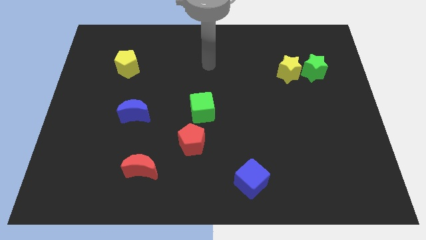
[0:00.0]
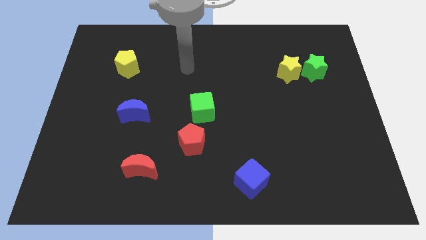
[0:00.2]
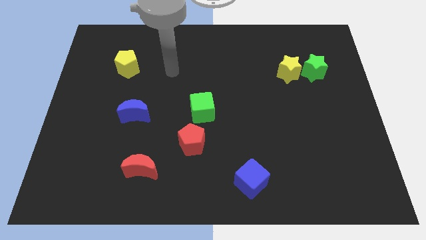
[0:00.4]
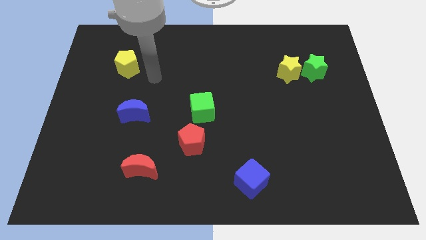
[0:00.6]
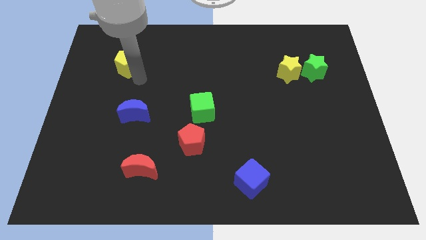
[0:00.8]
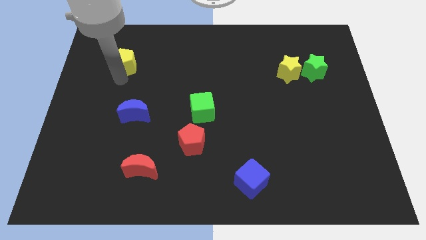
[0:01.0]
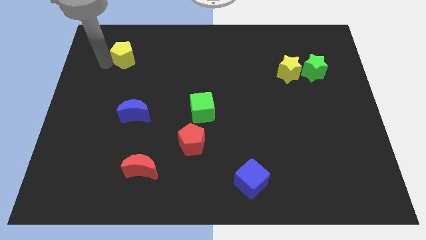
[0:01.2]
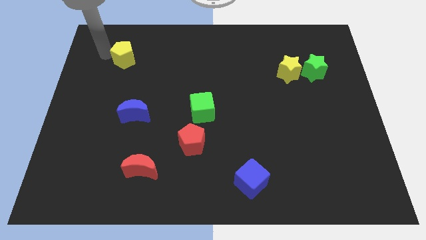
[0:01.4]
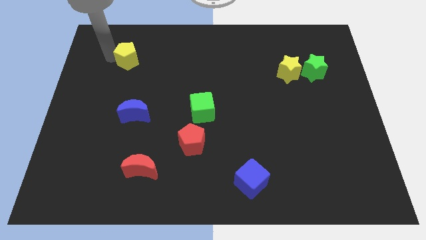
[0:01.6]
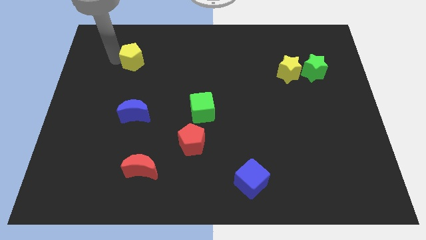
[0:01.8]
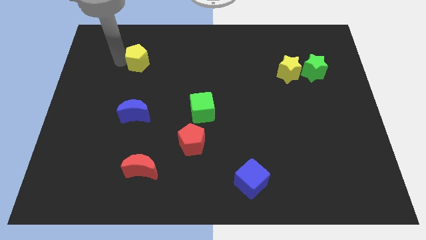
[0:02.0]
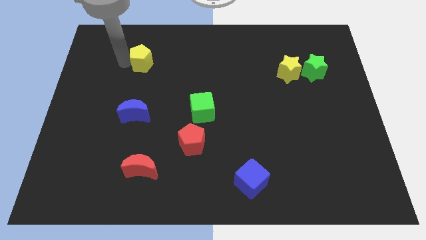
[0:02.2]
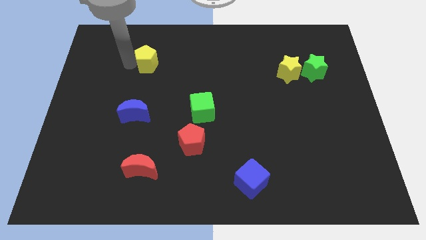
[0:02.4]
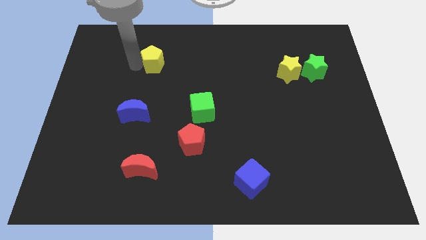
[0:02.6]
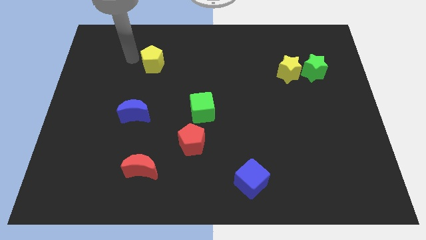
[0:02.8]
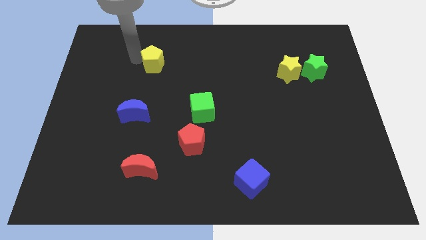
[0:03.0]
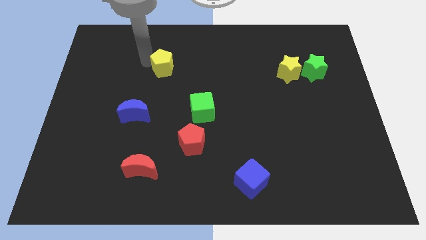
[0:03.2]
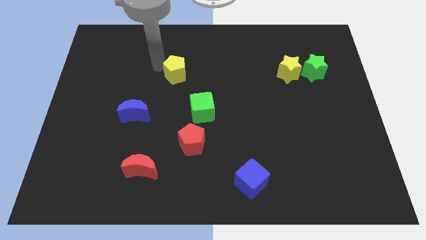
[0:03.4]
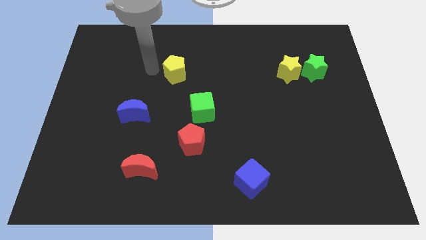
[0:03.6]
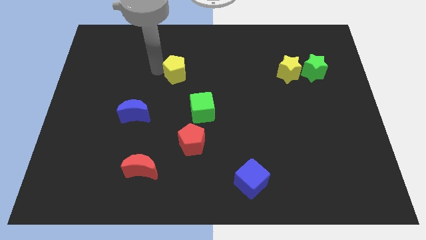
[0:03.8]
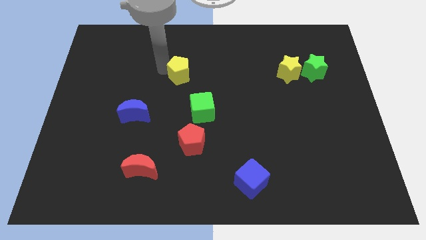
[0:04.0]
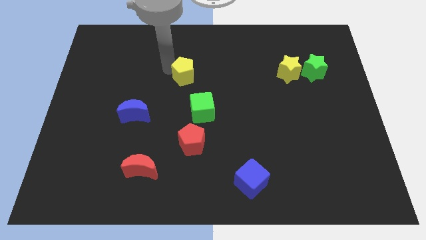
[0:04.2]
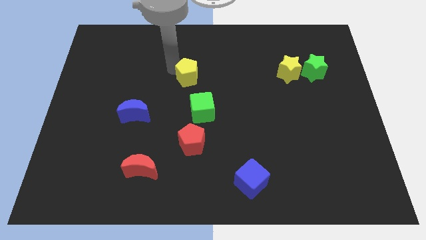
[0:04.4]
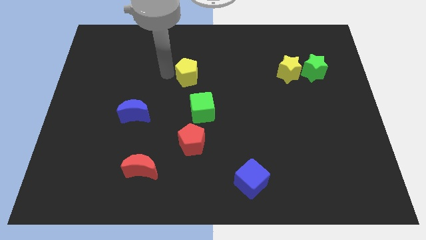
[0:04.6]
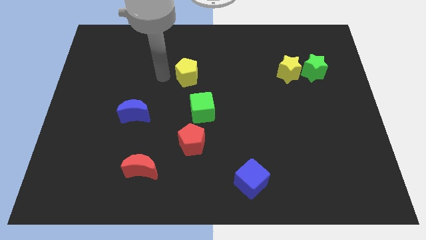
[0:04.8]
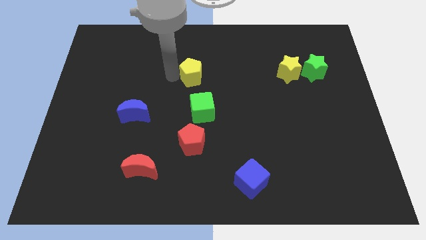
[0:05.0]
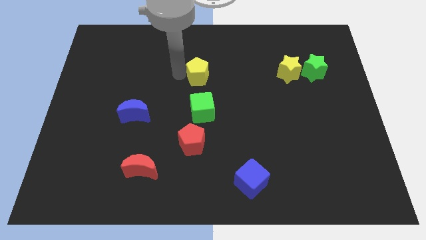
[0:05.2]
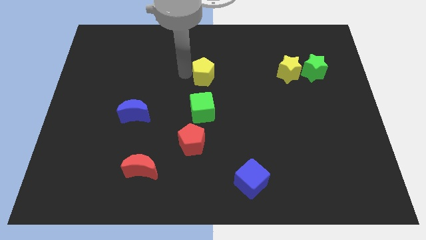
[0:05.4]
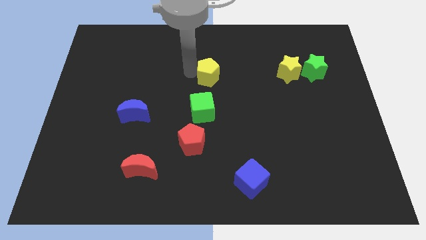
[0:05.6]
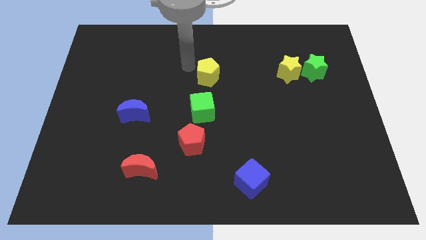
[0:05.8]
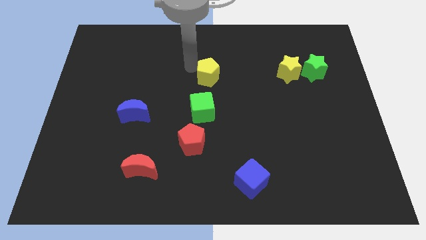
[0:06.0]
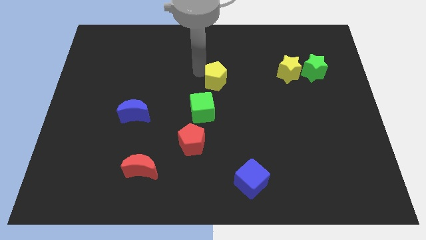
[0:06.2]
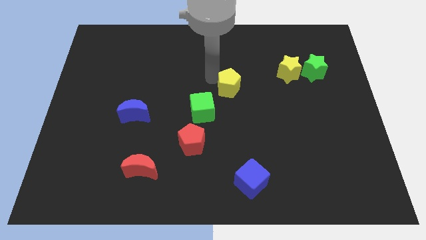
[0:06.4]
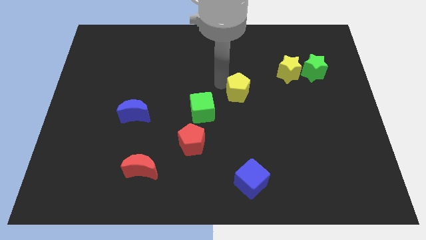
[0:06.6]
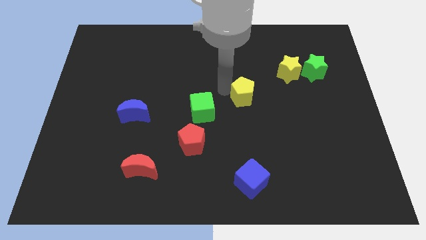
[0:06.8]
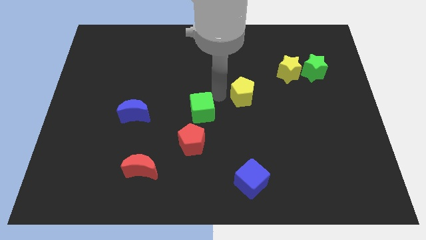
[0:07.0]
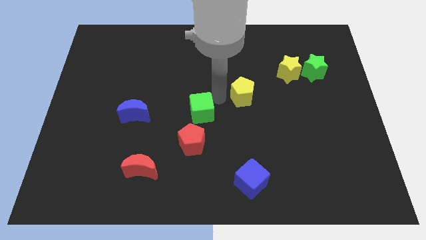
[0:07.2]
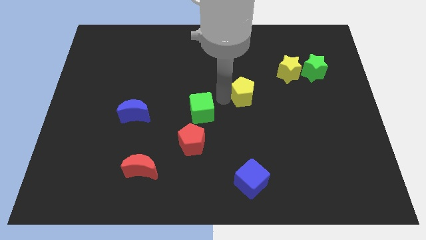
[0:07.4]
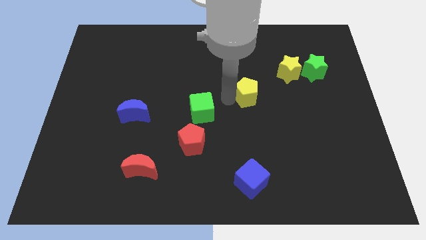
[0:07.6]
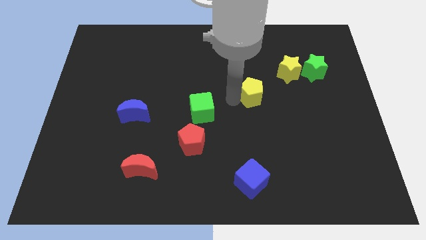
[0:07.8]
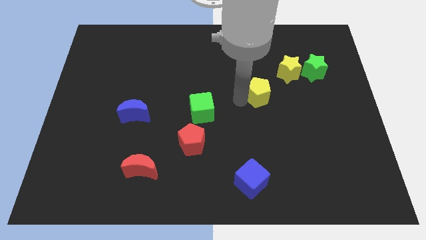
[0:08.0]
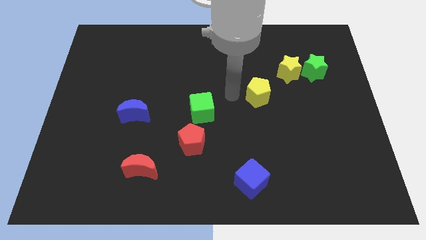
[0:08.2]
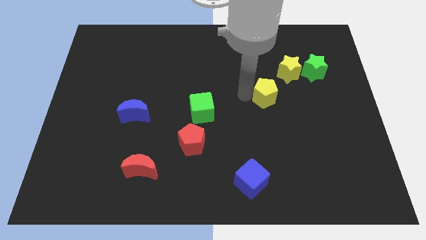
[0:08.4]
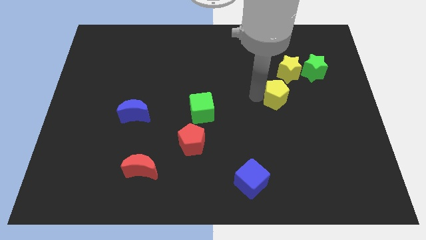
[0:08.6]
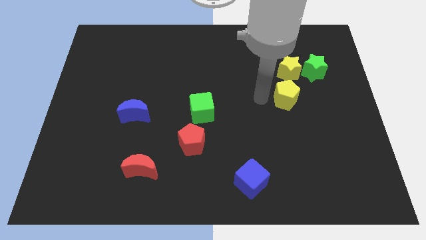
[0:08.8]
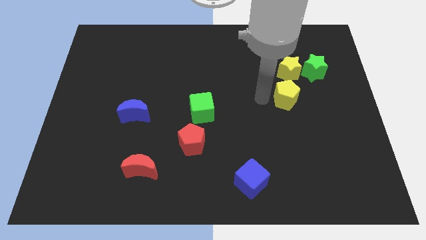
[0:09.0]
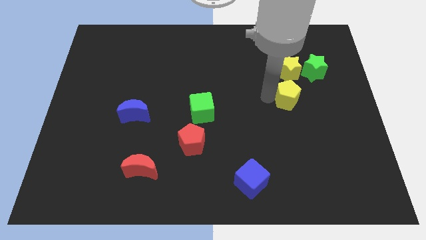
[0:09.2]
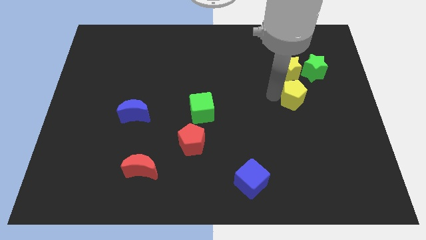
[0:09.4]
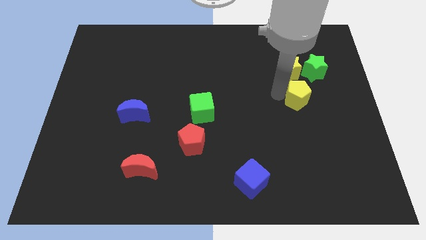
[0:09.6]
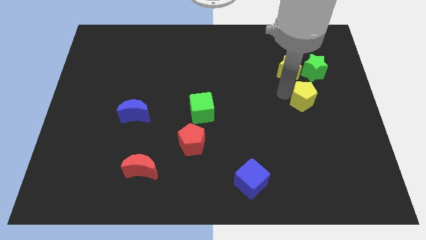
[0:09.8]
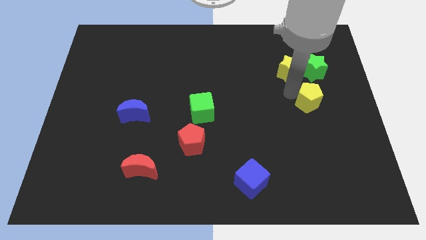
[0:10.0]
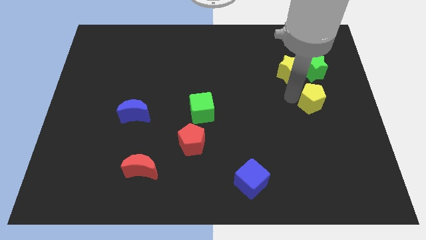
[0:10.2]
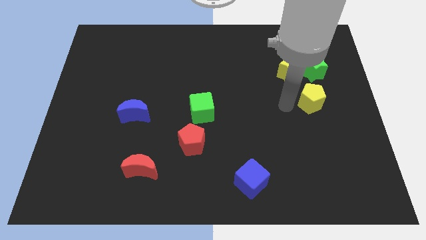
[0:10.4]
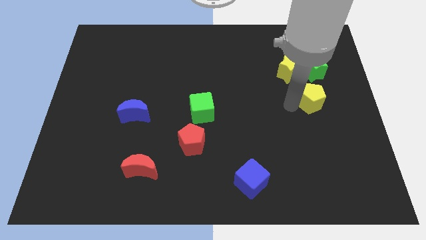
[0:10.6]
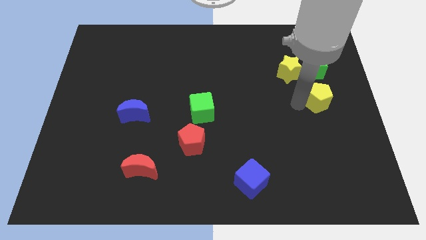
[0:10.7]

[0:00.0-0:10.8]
push the yellow pentagon to the center right

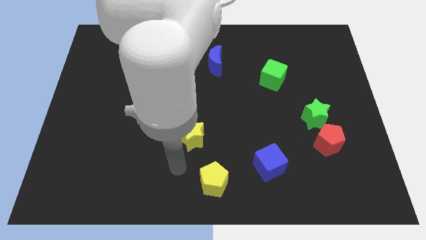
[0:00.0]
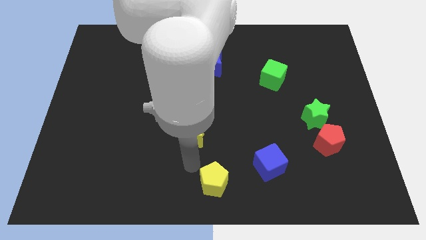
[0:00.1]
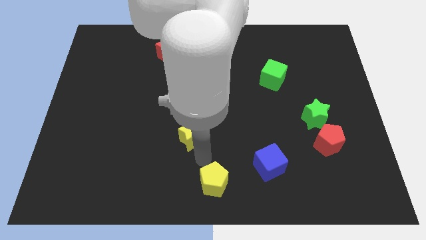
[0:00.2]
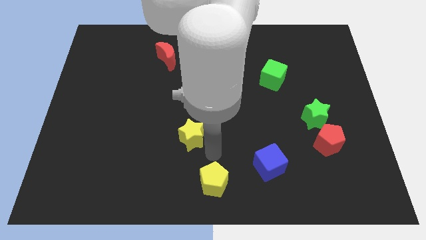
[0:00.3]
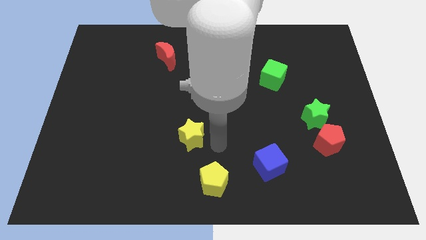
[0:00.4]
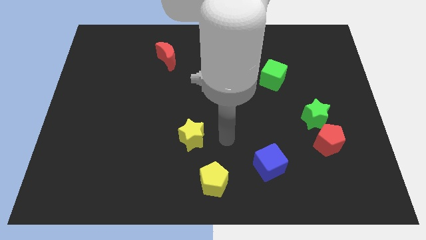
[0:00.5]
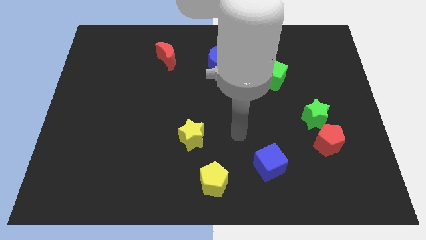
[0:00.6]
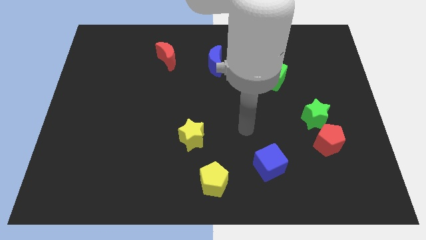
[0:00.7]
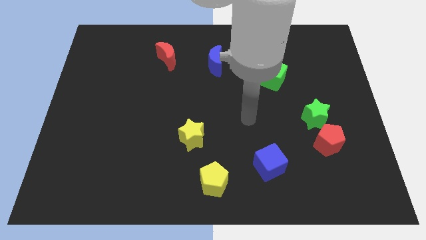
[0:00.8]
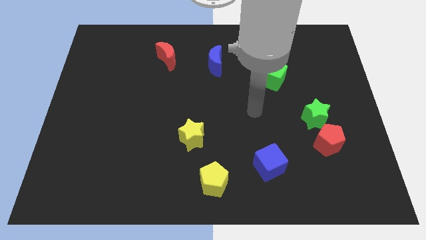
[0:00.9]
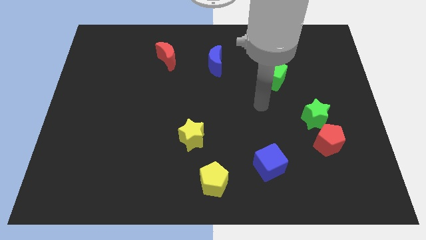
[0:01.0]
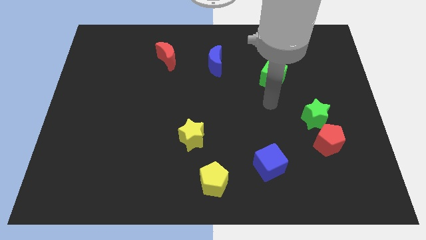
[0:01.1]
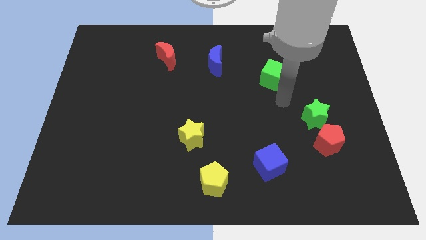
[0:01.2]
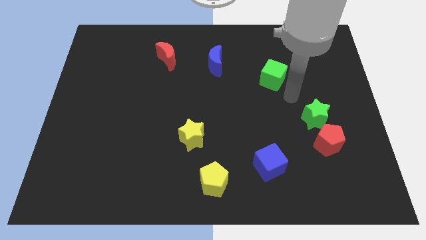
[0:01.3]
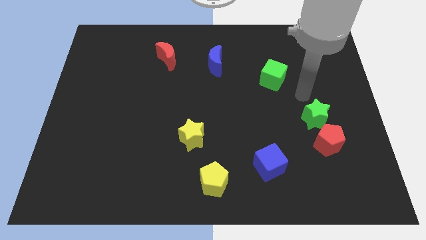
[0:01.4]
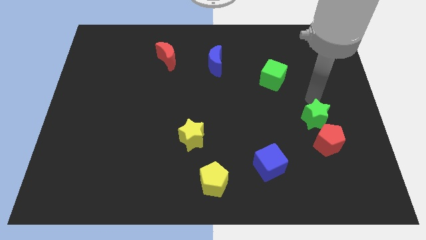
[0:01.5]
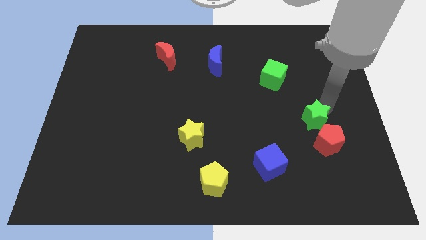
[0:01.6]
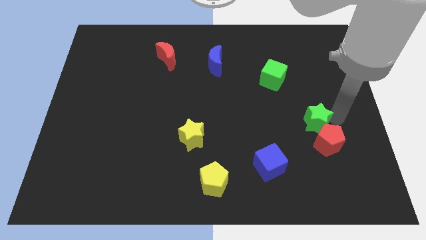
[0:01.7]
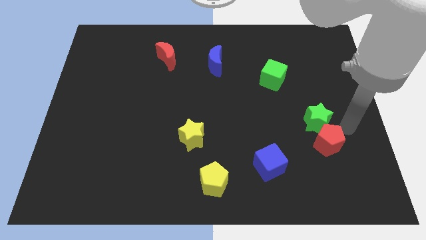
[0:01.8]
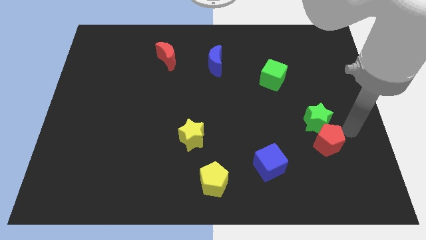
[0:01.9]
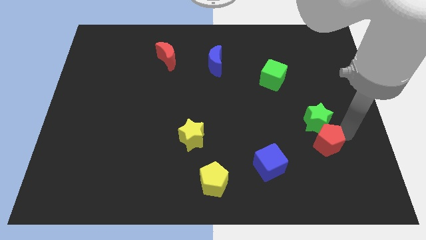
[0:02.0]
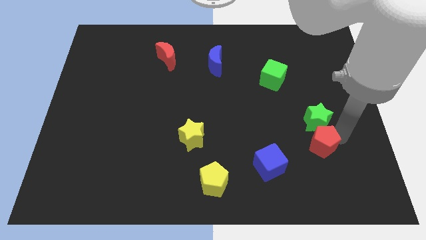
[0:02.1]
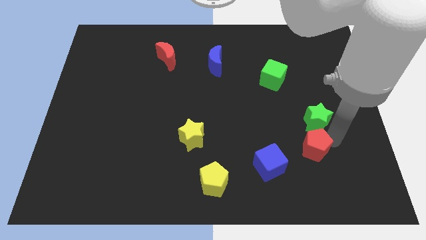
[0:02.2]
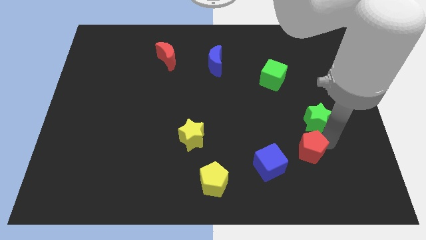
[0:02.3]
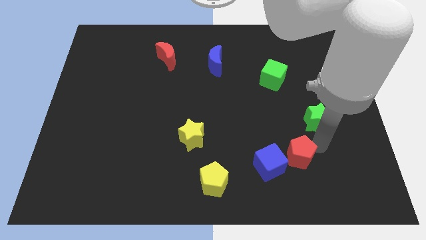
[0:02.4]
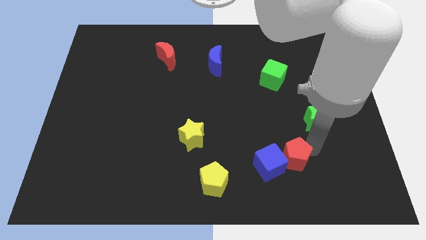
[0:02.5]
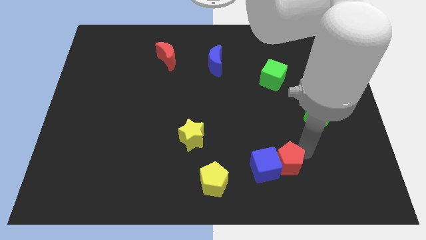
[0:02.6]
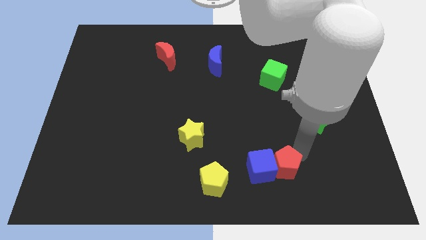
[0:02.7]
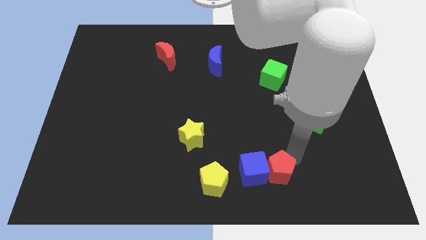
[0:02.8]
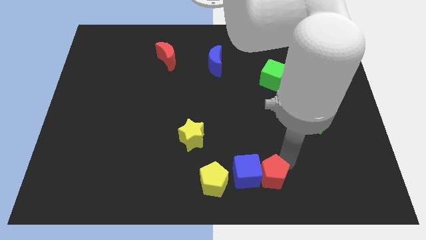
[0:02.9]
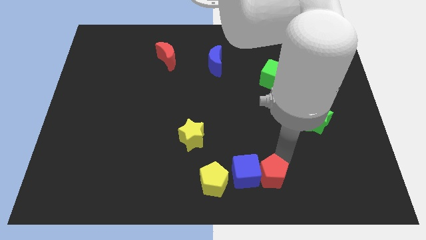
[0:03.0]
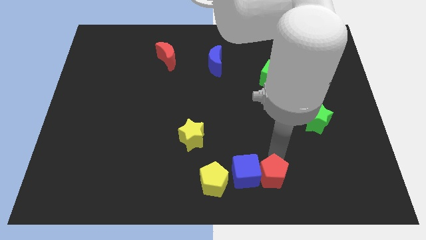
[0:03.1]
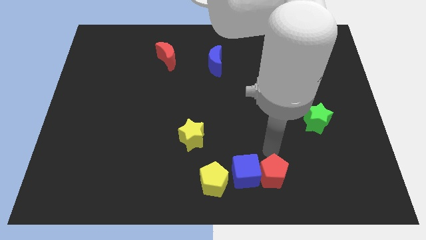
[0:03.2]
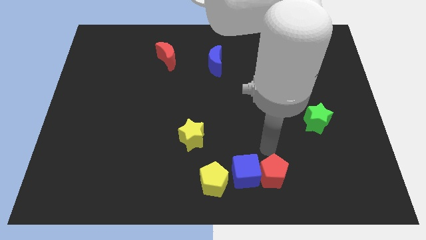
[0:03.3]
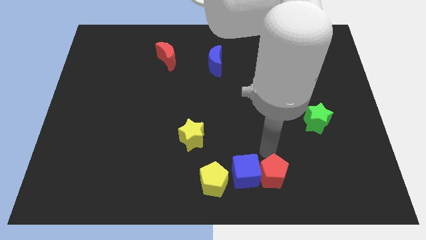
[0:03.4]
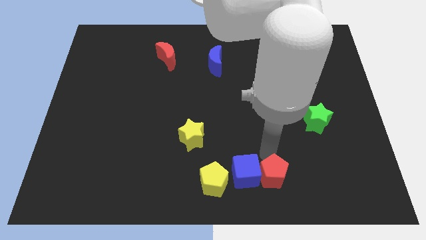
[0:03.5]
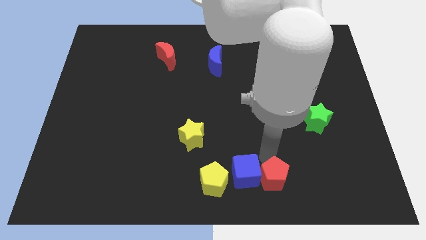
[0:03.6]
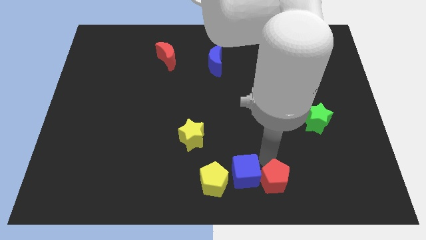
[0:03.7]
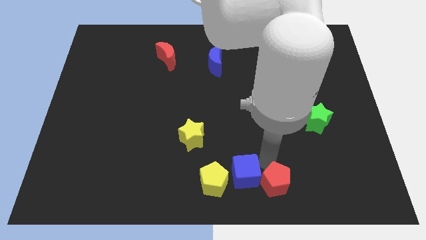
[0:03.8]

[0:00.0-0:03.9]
push the red pentagon to the bottom side
